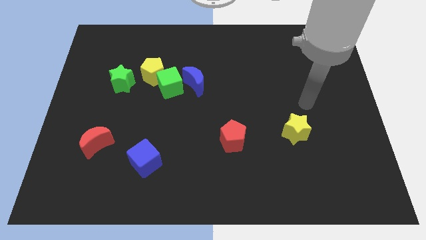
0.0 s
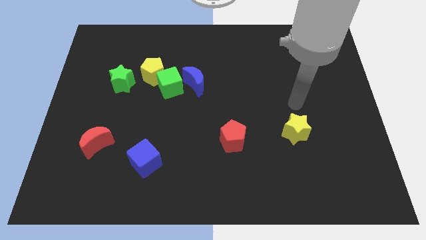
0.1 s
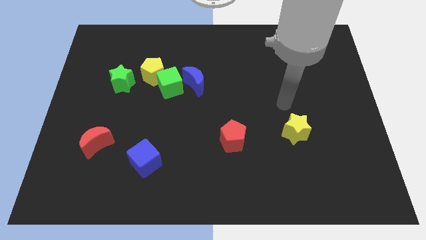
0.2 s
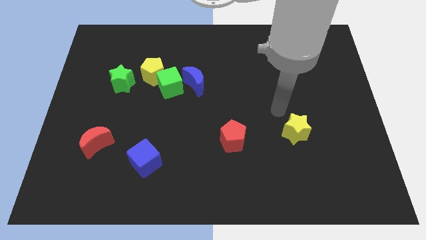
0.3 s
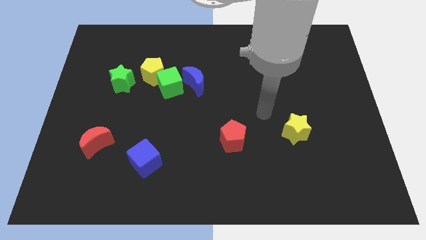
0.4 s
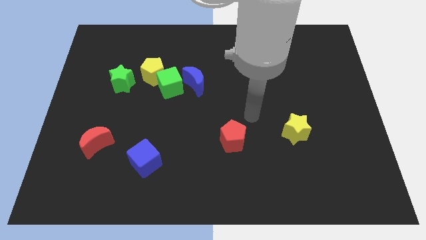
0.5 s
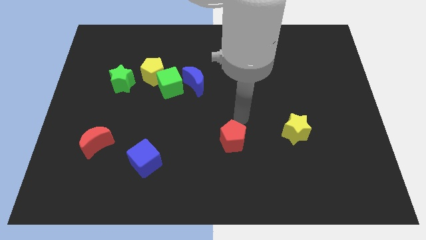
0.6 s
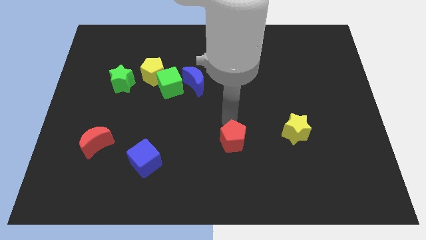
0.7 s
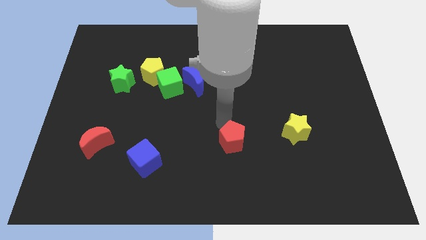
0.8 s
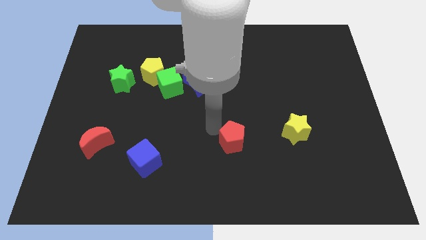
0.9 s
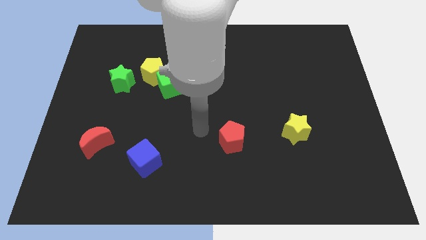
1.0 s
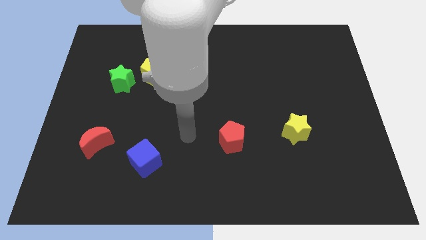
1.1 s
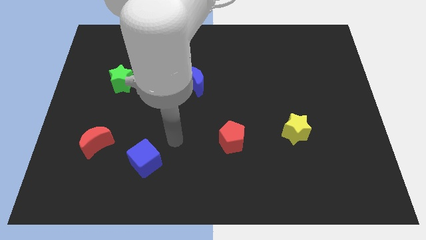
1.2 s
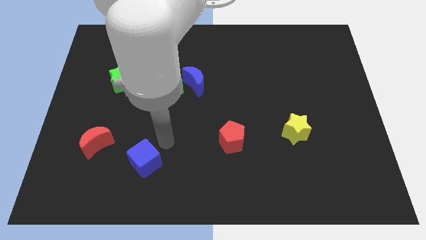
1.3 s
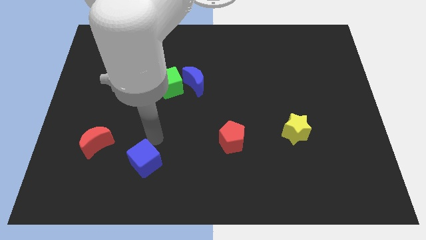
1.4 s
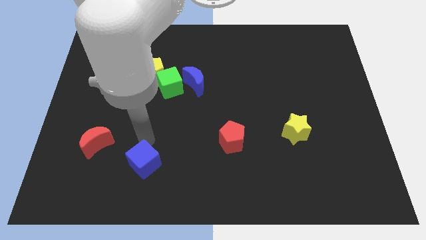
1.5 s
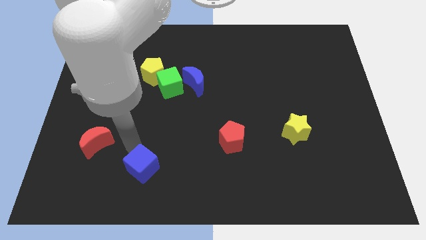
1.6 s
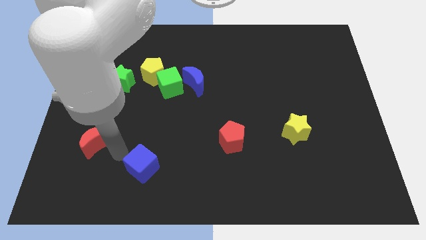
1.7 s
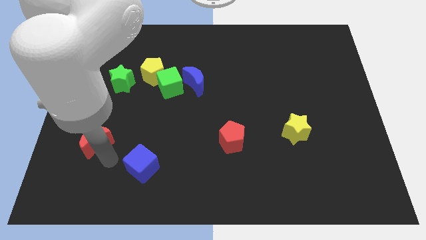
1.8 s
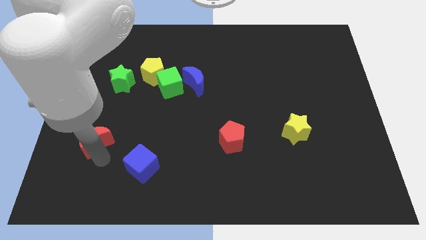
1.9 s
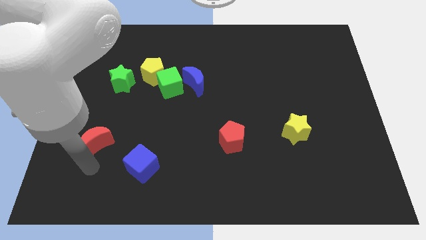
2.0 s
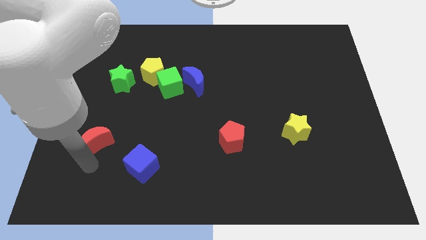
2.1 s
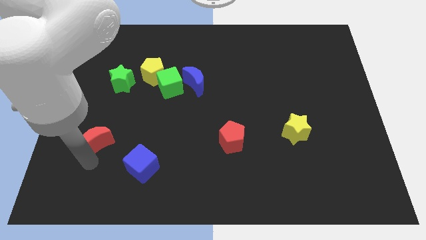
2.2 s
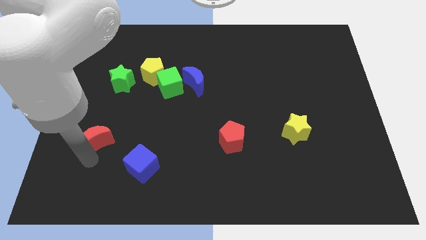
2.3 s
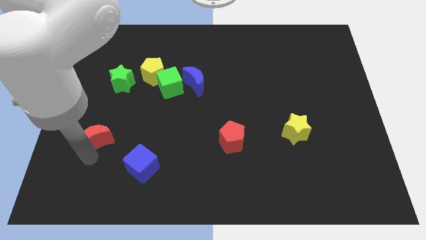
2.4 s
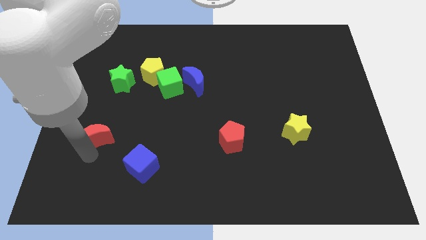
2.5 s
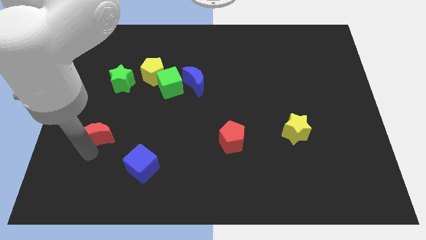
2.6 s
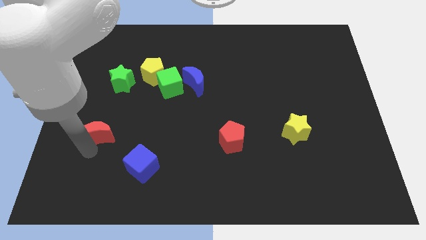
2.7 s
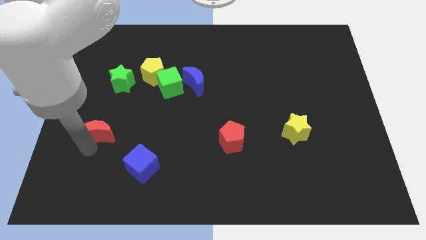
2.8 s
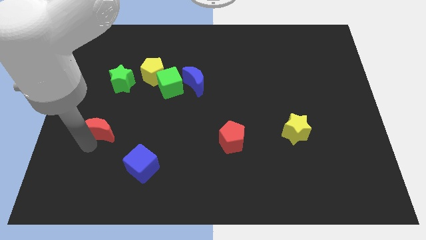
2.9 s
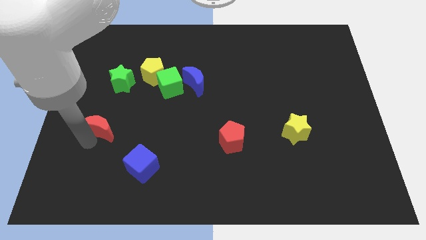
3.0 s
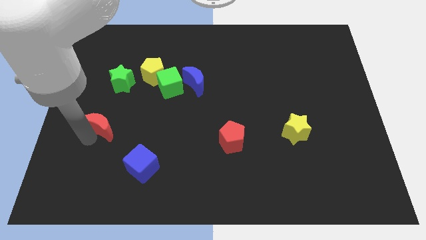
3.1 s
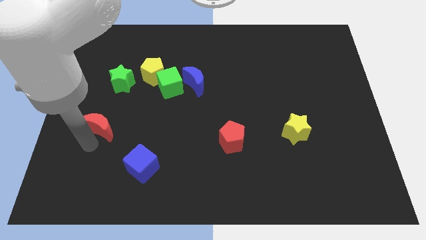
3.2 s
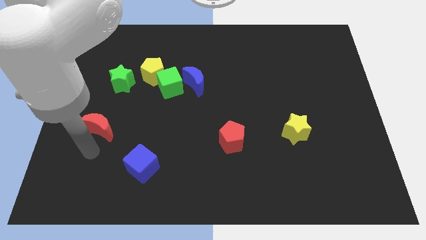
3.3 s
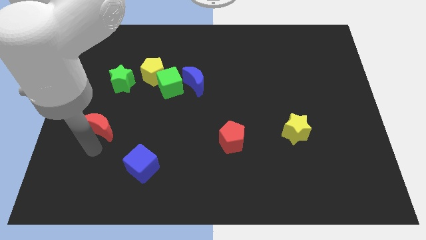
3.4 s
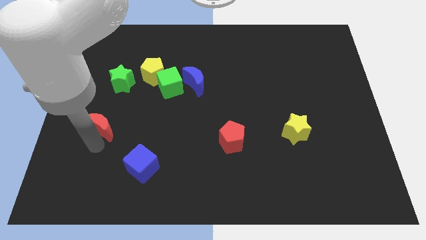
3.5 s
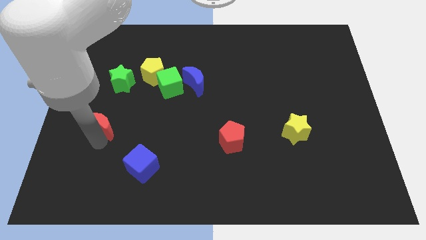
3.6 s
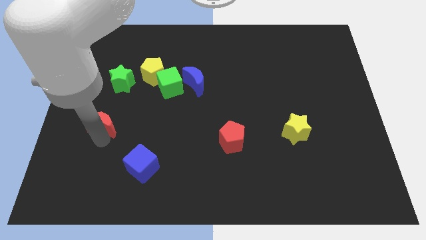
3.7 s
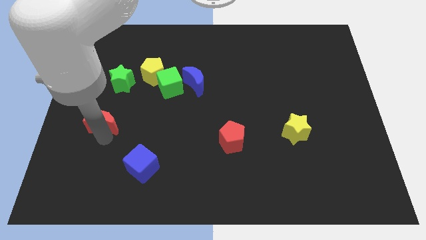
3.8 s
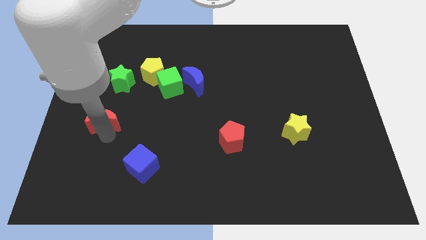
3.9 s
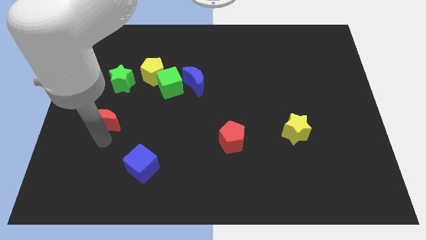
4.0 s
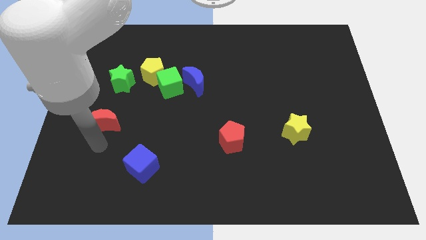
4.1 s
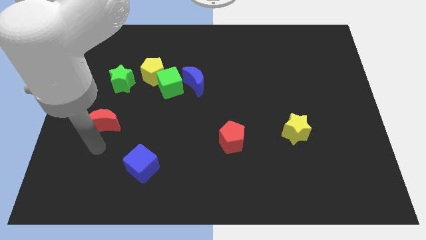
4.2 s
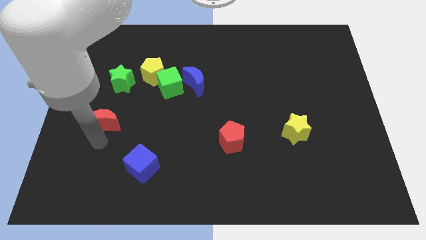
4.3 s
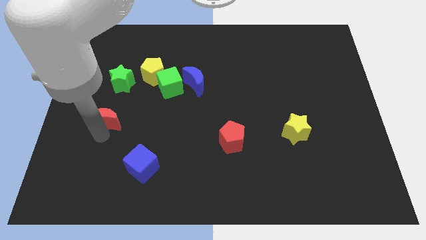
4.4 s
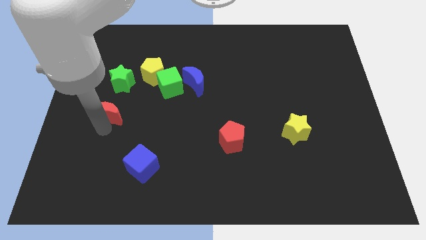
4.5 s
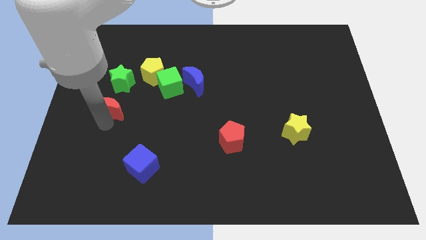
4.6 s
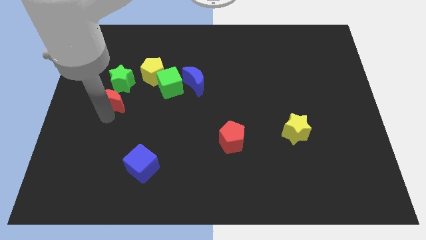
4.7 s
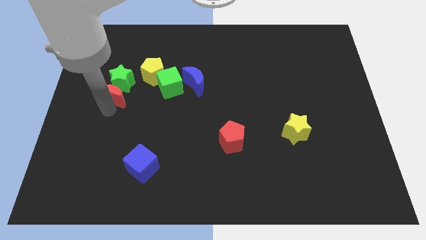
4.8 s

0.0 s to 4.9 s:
put the red moon to the green star

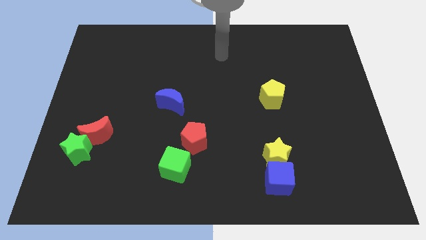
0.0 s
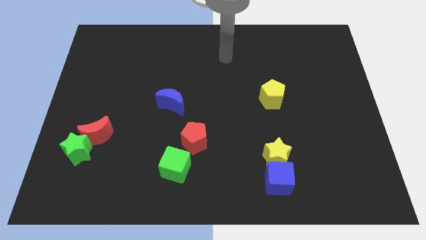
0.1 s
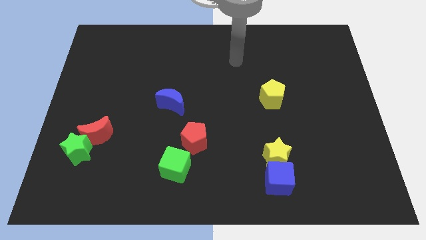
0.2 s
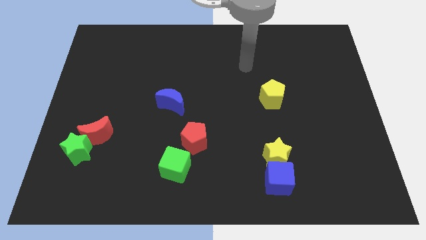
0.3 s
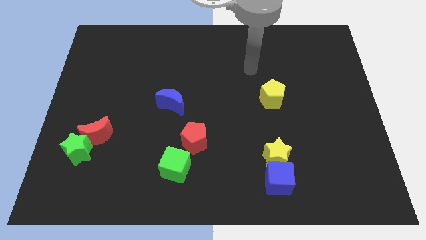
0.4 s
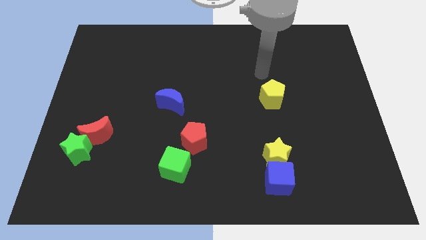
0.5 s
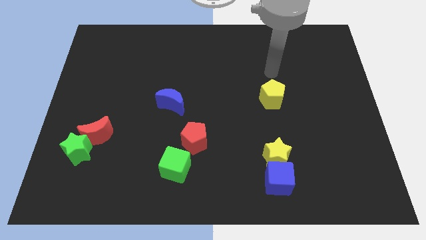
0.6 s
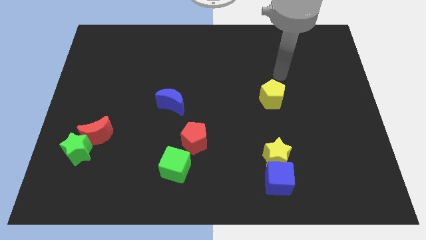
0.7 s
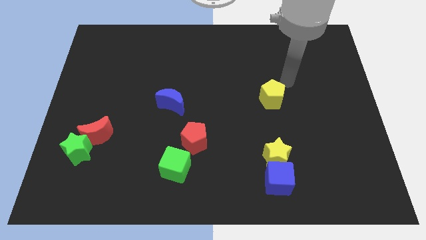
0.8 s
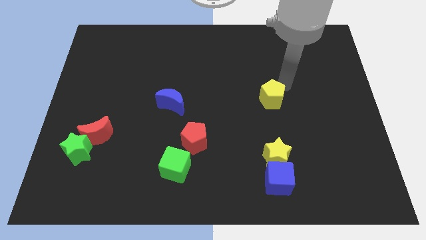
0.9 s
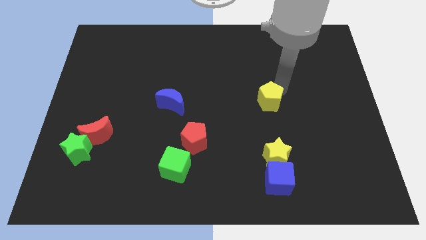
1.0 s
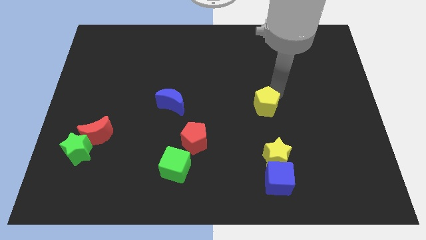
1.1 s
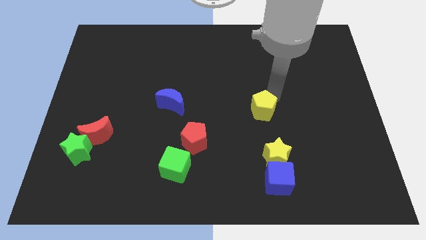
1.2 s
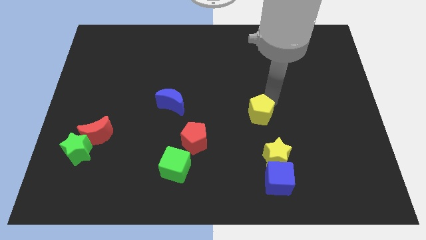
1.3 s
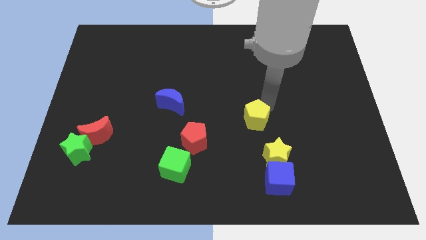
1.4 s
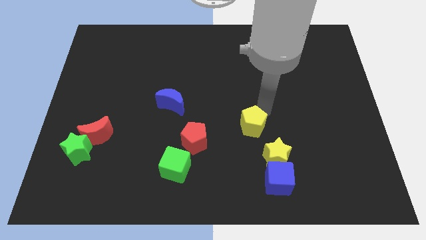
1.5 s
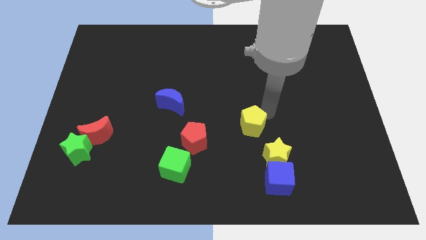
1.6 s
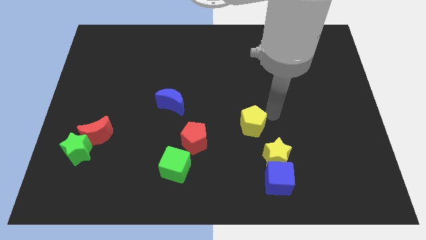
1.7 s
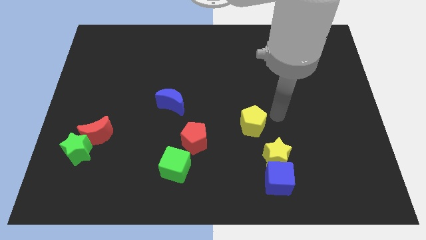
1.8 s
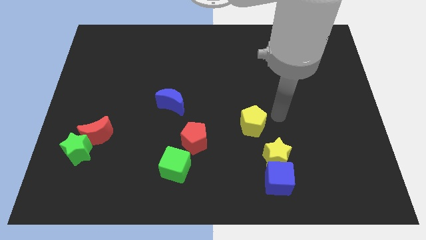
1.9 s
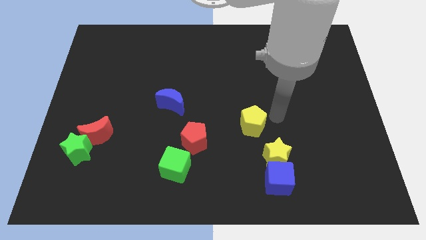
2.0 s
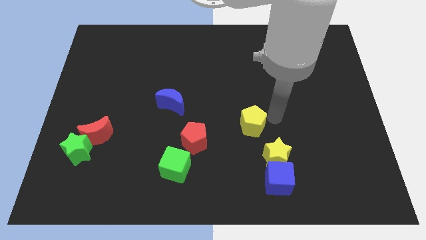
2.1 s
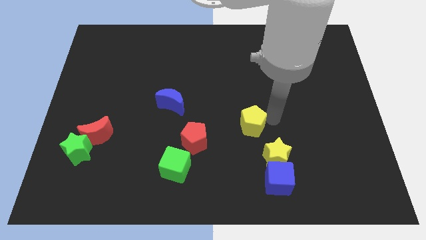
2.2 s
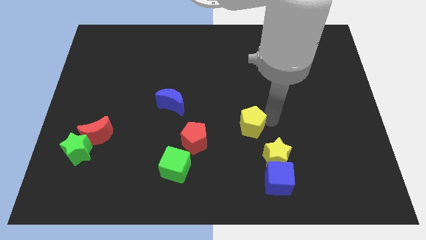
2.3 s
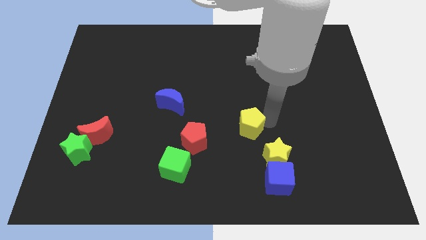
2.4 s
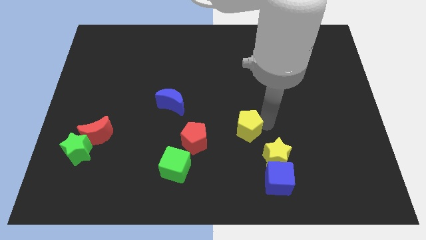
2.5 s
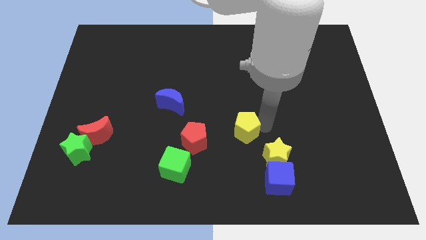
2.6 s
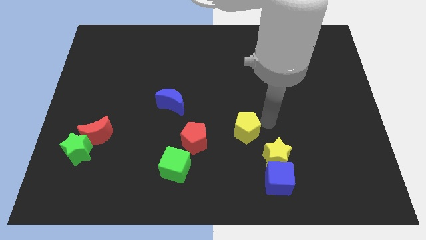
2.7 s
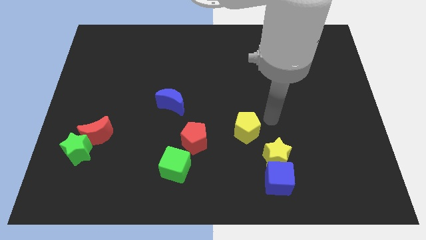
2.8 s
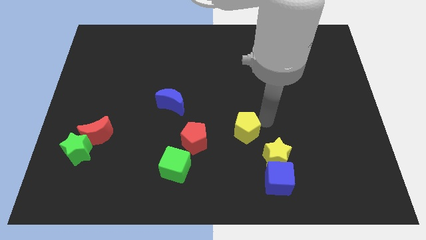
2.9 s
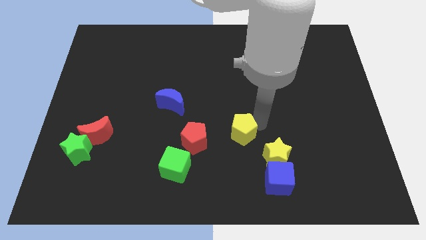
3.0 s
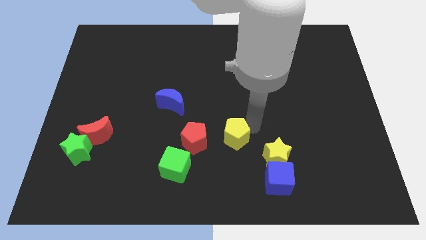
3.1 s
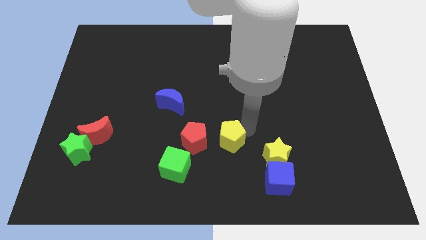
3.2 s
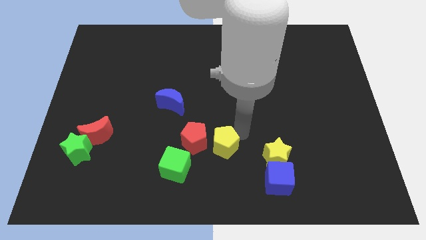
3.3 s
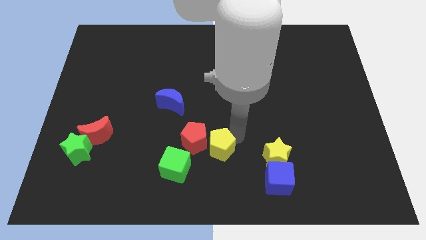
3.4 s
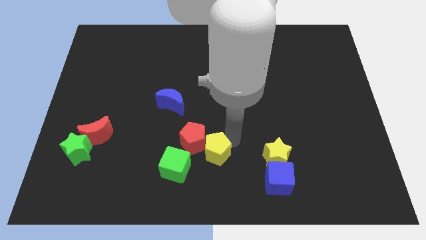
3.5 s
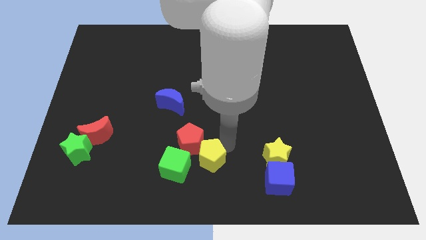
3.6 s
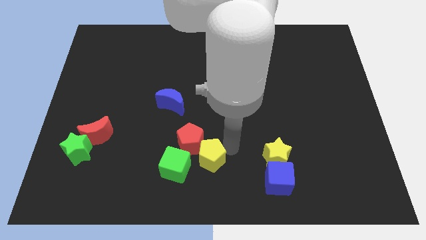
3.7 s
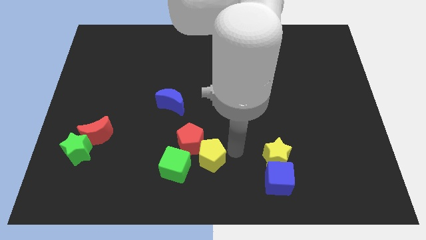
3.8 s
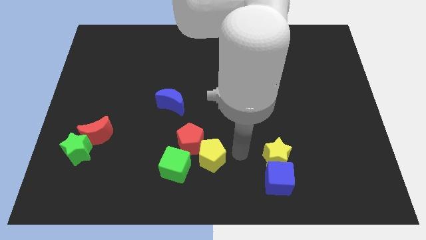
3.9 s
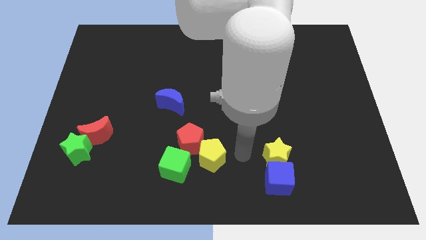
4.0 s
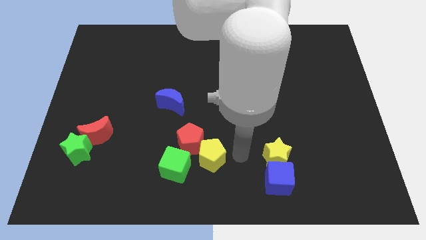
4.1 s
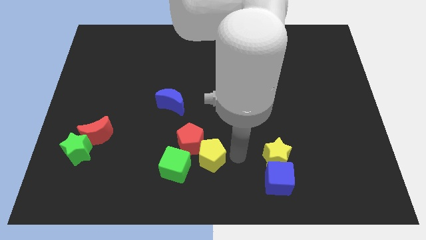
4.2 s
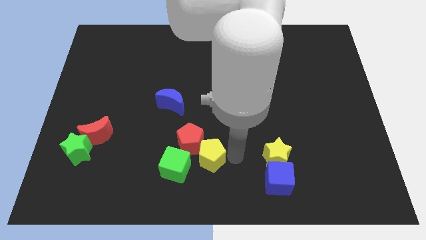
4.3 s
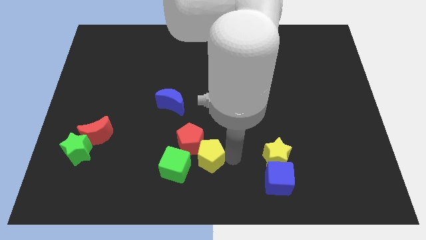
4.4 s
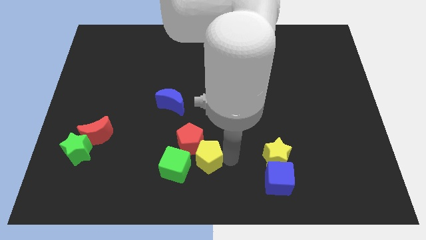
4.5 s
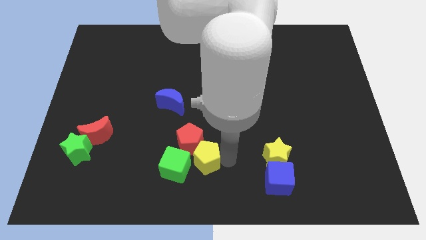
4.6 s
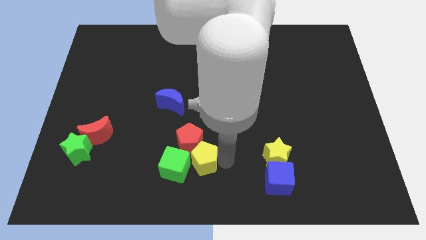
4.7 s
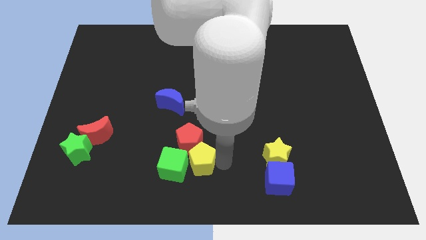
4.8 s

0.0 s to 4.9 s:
push the yellow pentagon next to the green cube
